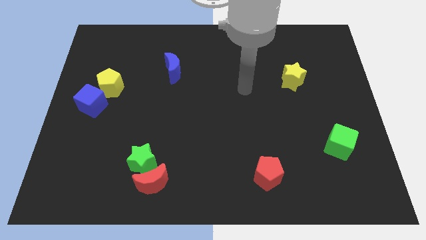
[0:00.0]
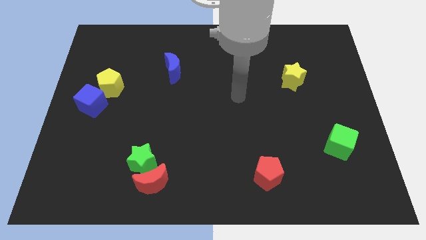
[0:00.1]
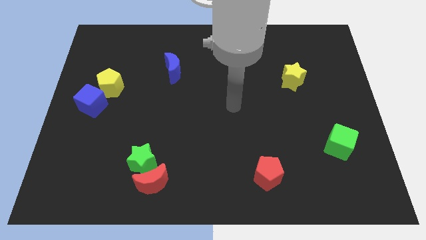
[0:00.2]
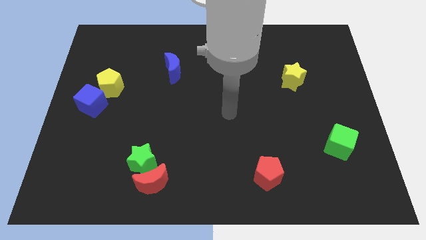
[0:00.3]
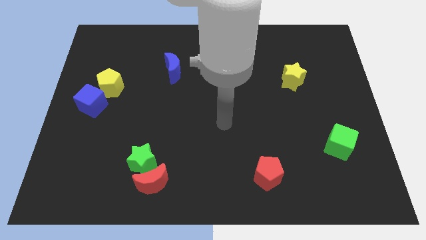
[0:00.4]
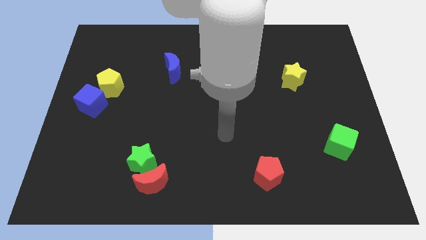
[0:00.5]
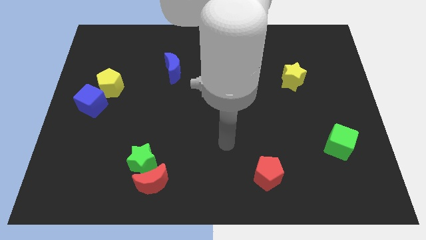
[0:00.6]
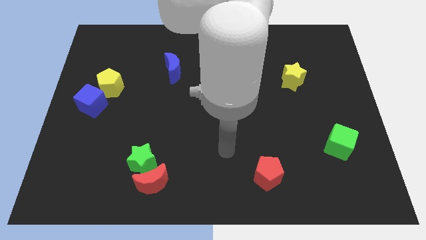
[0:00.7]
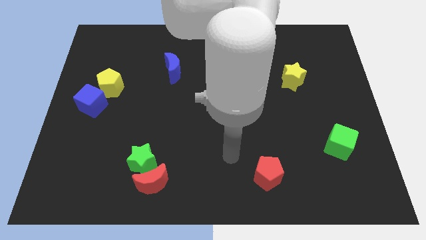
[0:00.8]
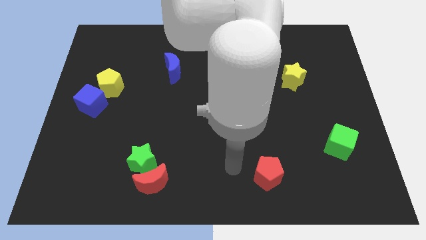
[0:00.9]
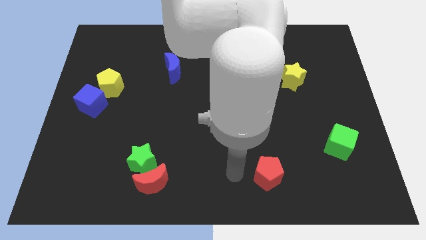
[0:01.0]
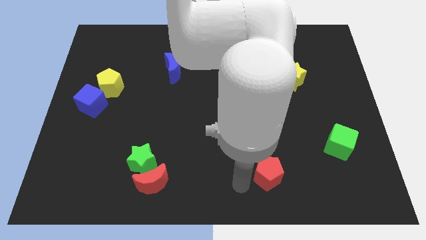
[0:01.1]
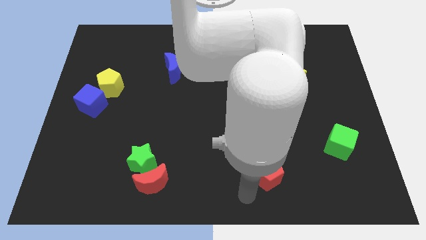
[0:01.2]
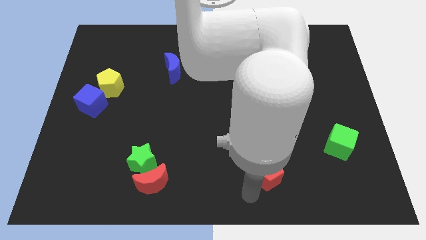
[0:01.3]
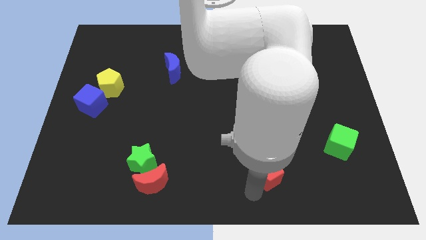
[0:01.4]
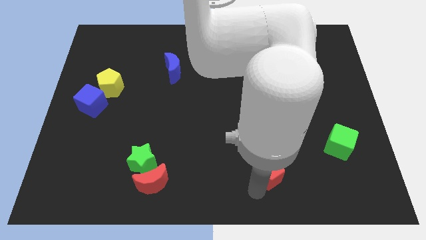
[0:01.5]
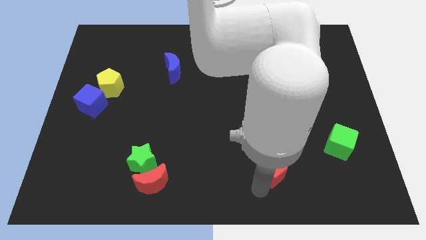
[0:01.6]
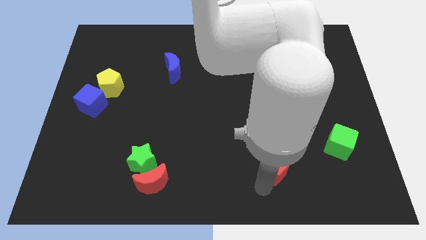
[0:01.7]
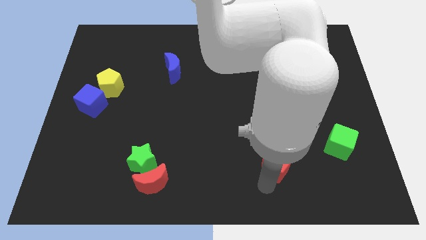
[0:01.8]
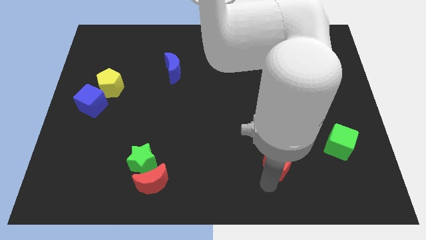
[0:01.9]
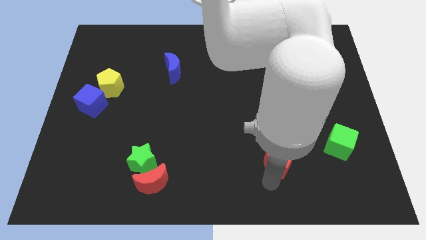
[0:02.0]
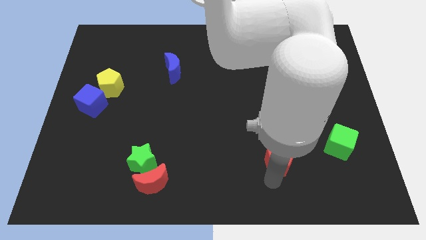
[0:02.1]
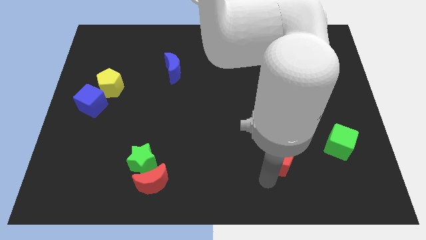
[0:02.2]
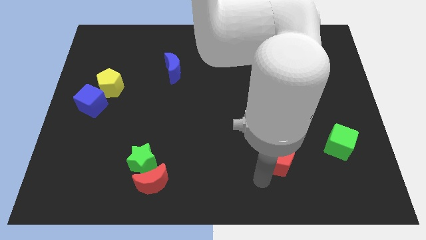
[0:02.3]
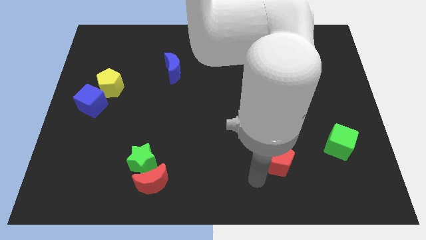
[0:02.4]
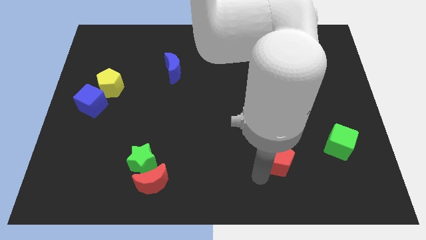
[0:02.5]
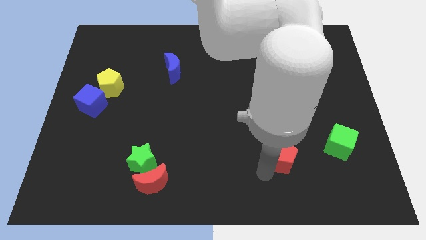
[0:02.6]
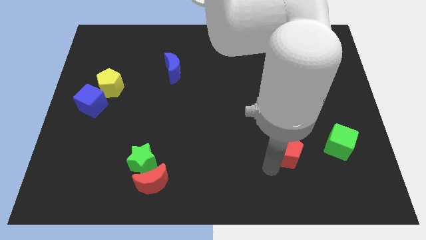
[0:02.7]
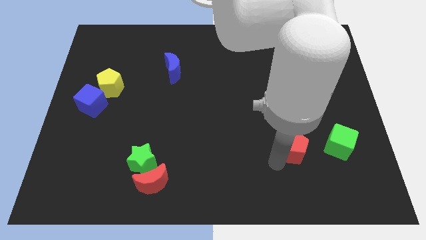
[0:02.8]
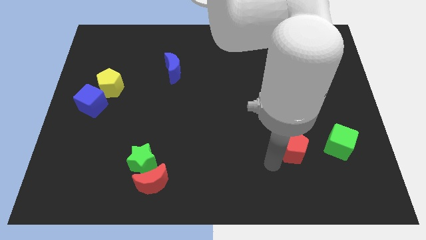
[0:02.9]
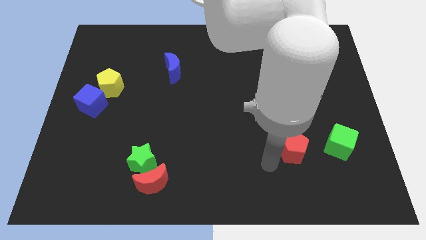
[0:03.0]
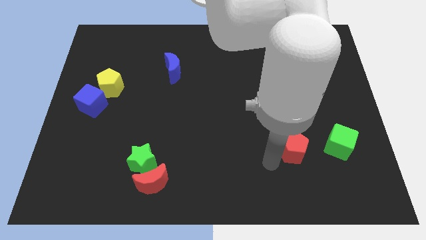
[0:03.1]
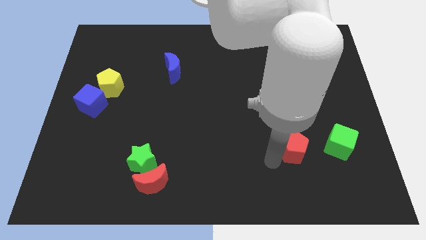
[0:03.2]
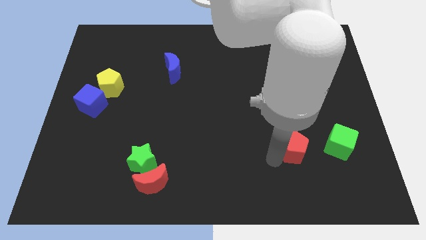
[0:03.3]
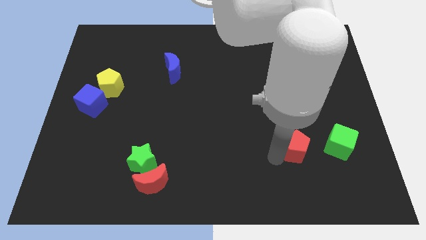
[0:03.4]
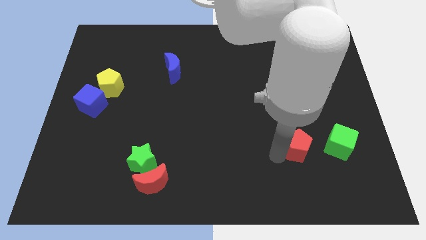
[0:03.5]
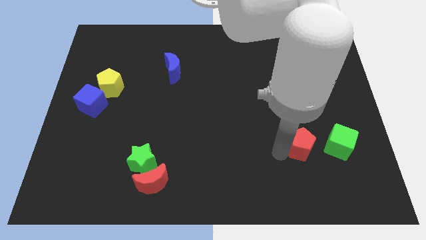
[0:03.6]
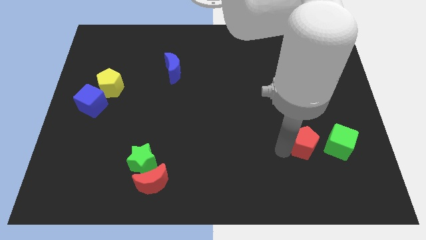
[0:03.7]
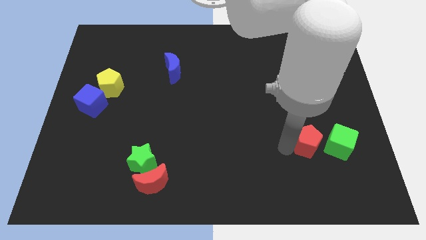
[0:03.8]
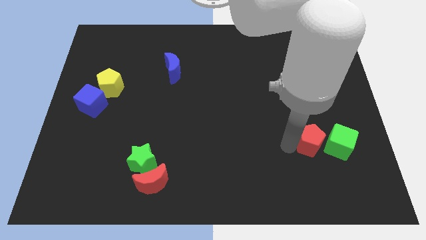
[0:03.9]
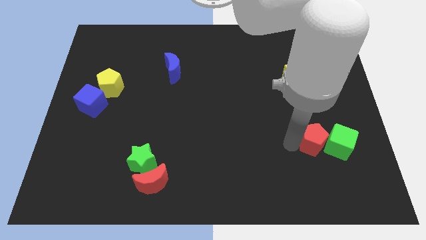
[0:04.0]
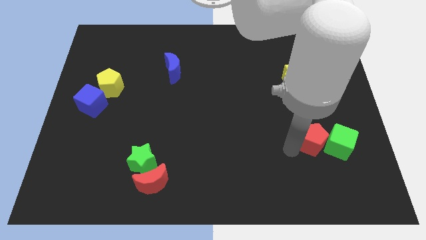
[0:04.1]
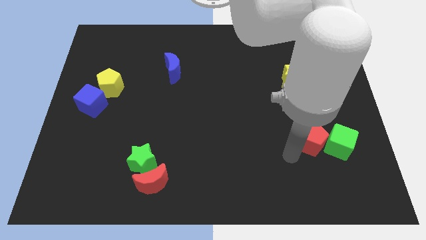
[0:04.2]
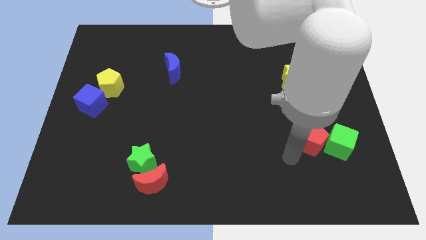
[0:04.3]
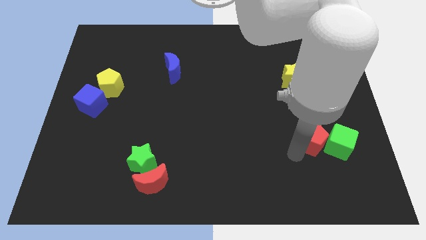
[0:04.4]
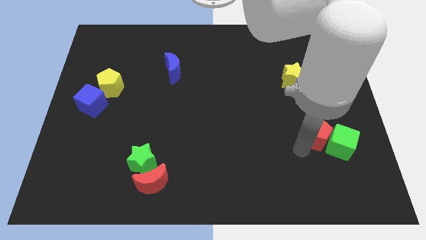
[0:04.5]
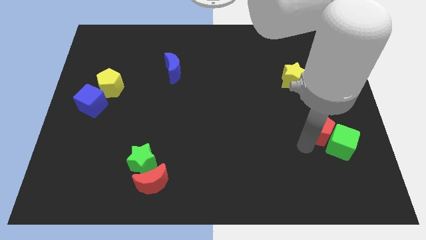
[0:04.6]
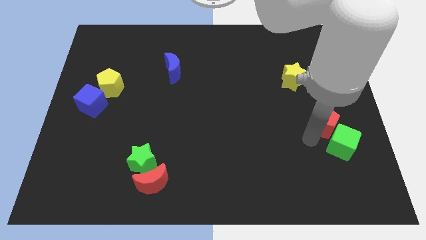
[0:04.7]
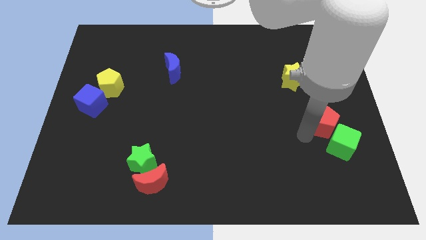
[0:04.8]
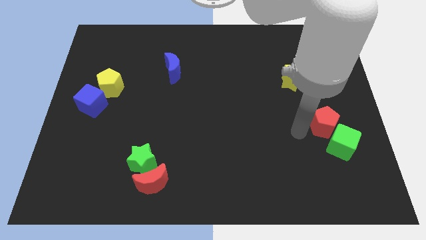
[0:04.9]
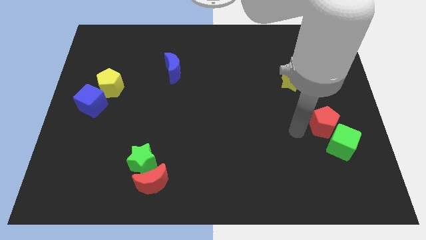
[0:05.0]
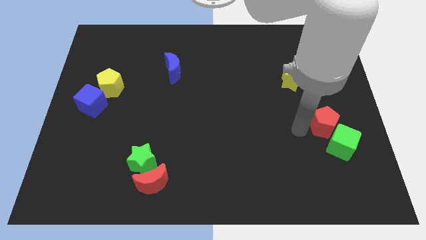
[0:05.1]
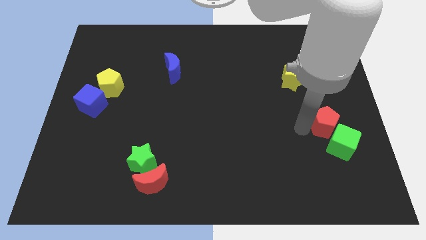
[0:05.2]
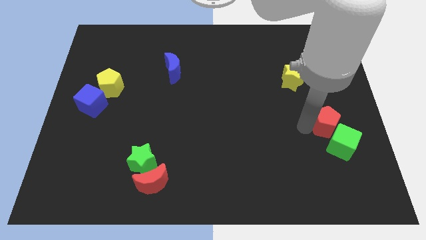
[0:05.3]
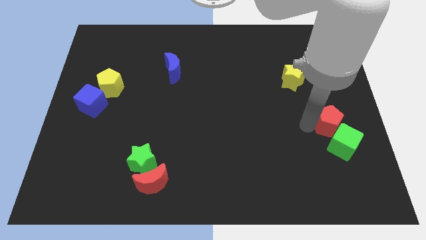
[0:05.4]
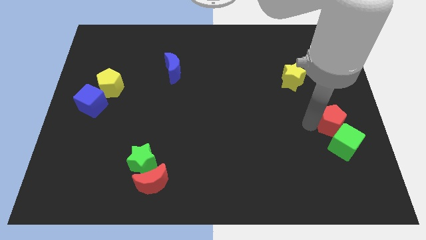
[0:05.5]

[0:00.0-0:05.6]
move the red pentagon to the right side

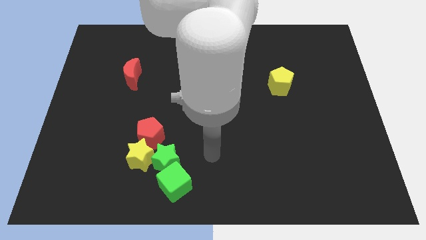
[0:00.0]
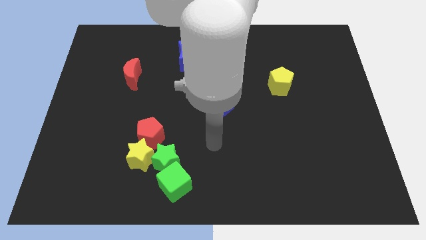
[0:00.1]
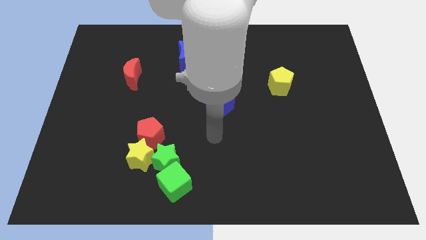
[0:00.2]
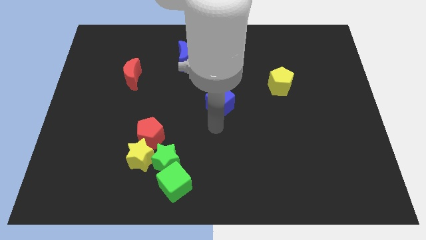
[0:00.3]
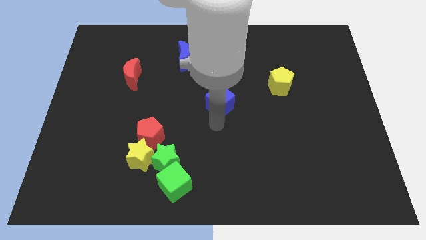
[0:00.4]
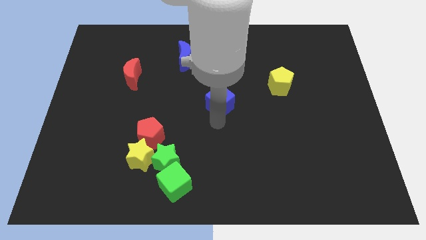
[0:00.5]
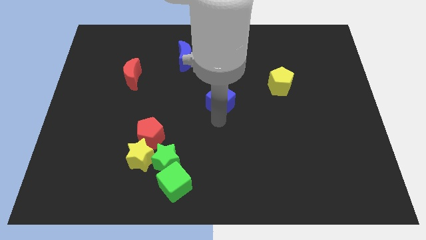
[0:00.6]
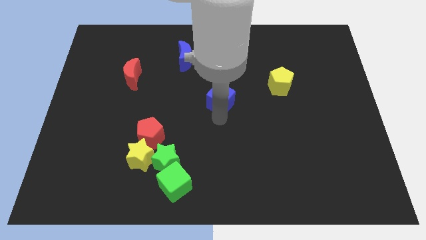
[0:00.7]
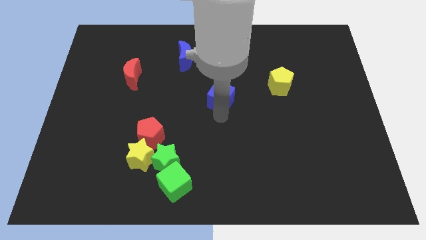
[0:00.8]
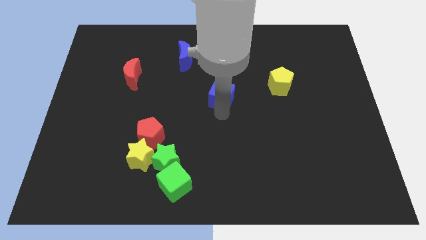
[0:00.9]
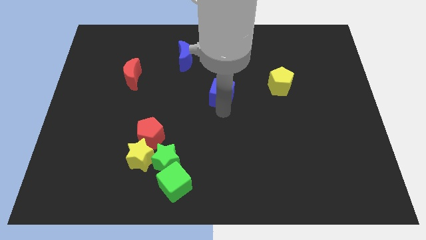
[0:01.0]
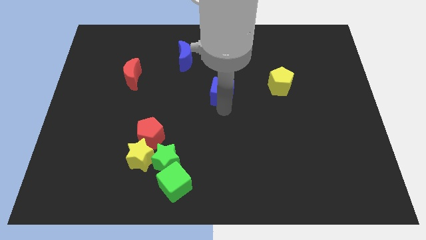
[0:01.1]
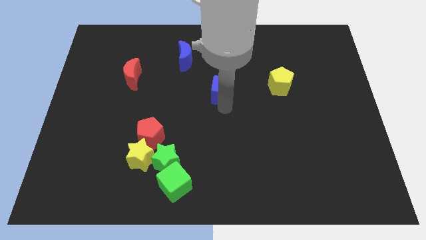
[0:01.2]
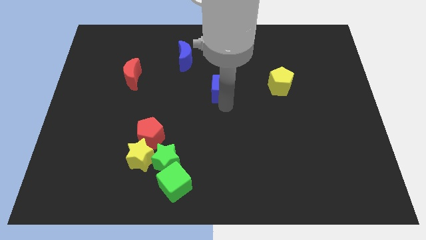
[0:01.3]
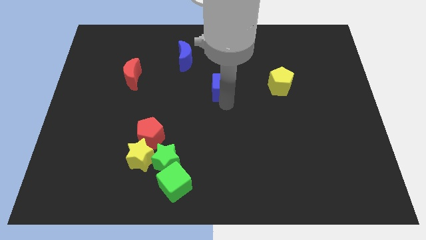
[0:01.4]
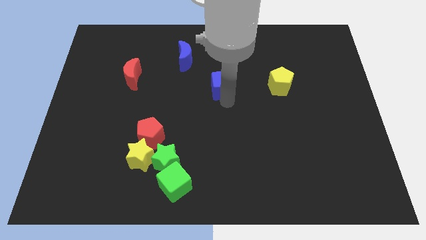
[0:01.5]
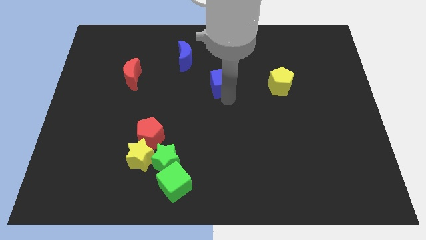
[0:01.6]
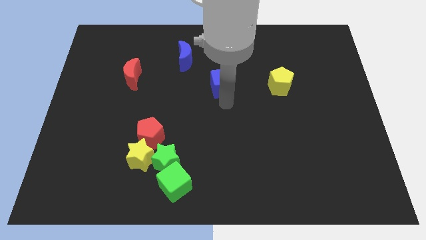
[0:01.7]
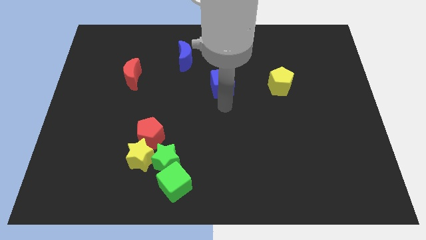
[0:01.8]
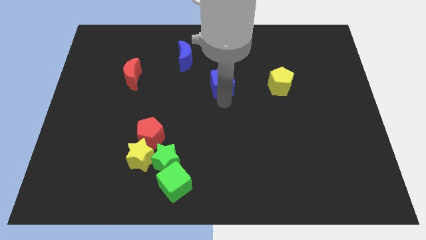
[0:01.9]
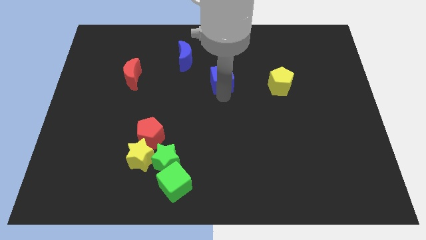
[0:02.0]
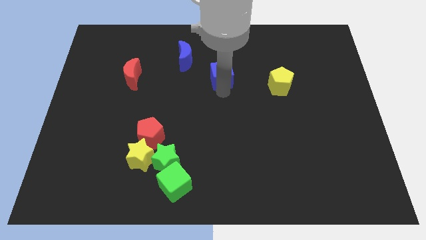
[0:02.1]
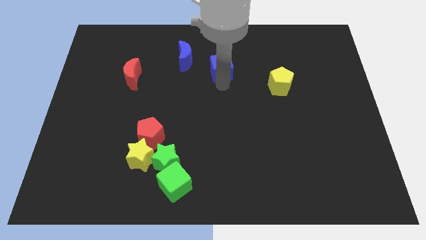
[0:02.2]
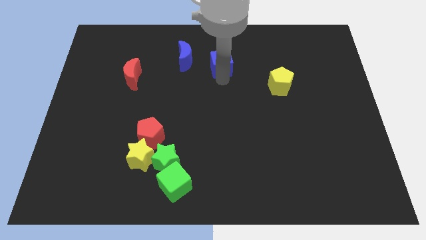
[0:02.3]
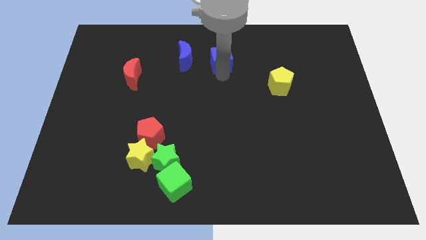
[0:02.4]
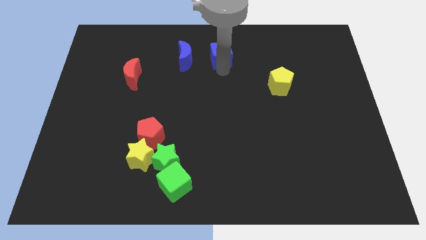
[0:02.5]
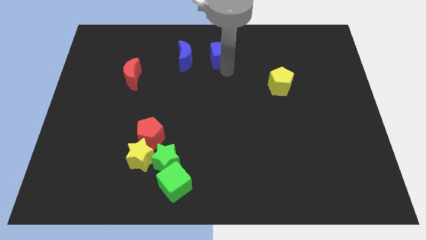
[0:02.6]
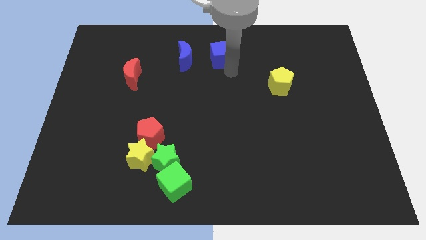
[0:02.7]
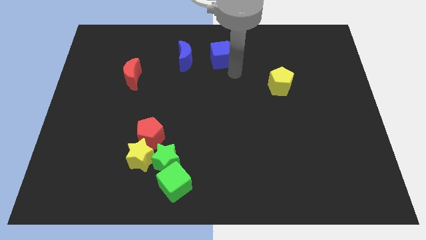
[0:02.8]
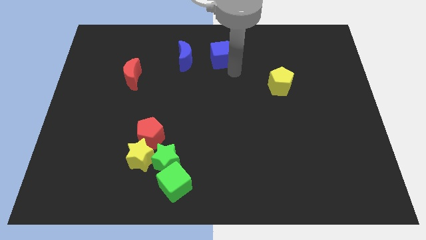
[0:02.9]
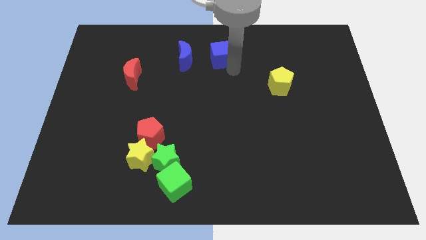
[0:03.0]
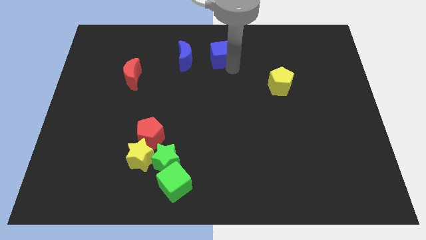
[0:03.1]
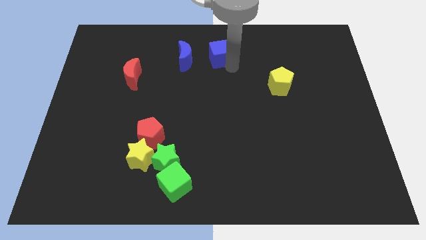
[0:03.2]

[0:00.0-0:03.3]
move the blue cube to the top

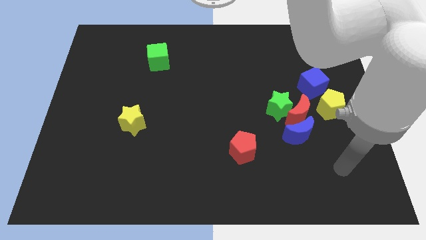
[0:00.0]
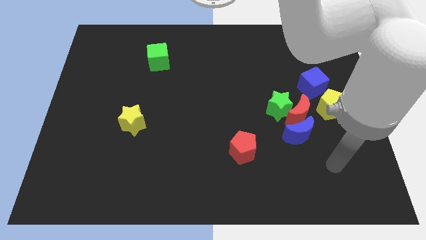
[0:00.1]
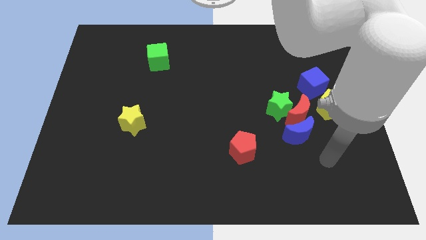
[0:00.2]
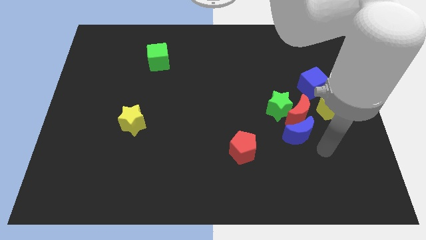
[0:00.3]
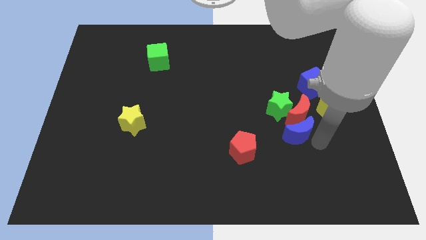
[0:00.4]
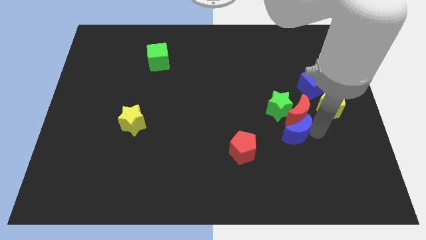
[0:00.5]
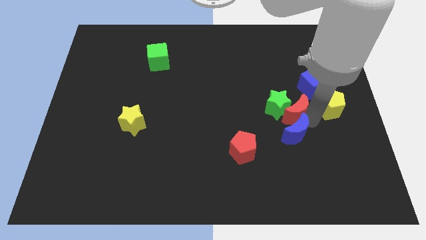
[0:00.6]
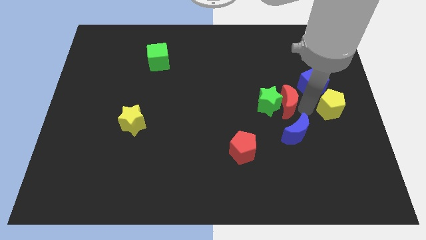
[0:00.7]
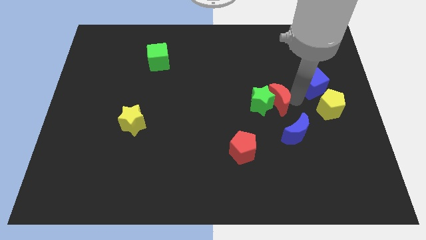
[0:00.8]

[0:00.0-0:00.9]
move the green star to the middle of the board
